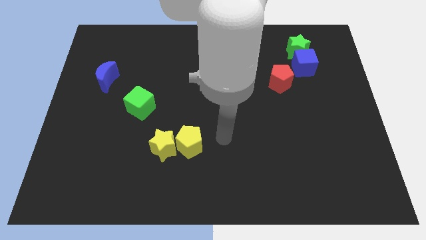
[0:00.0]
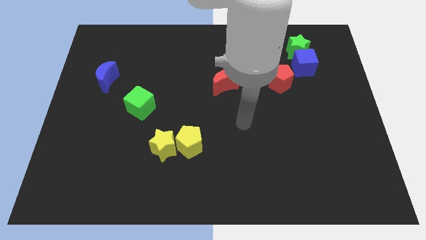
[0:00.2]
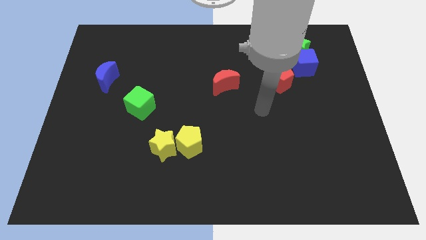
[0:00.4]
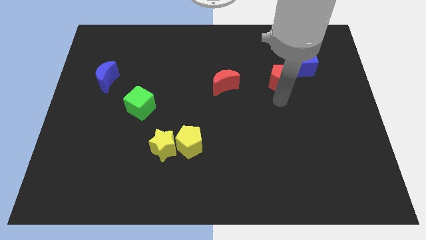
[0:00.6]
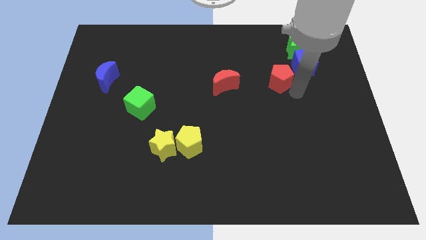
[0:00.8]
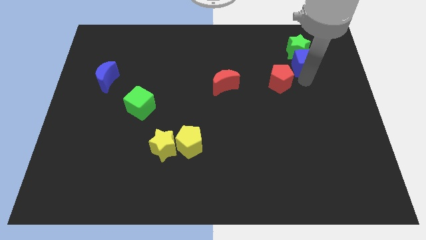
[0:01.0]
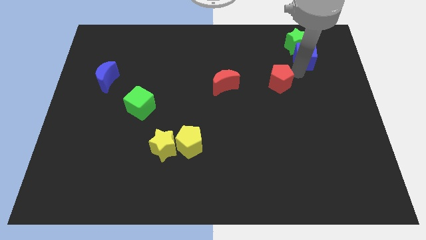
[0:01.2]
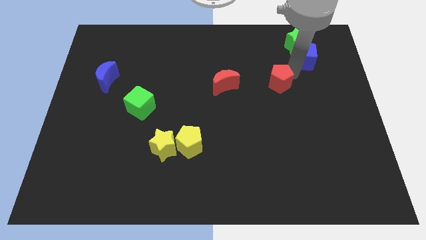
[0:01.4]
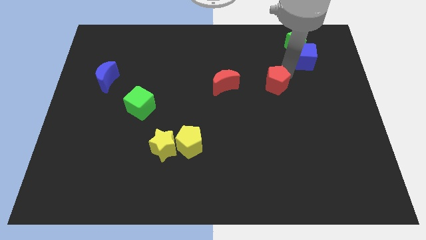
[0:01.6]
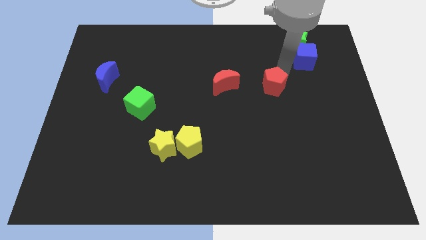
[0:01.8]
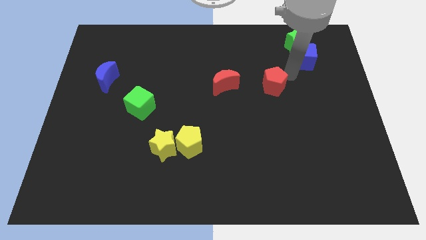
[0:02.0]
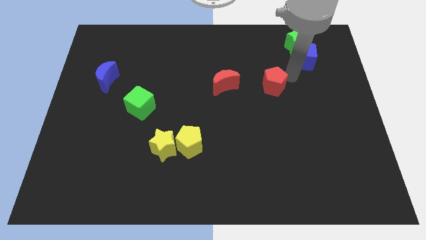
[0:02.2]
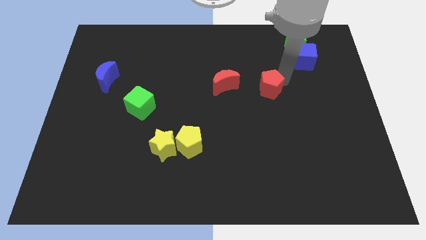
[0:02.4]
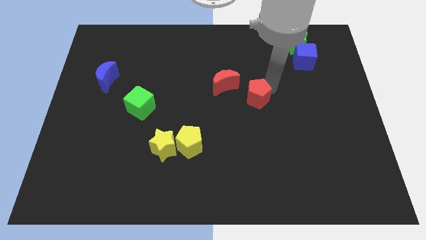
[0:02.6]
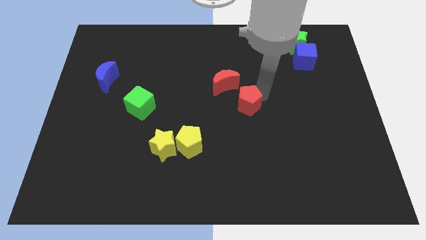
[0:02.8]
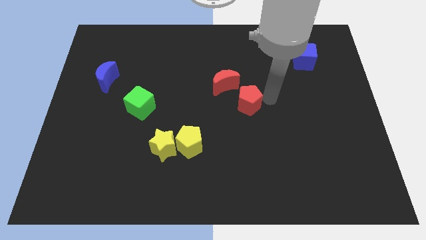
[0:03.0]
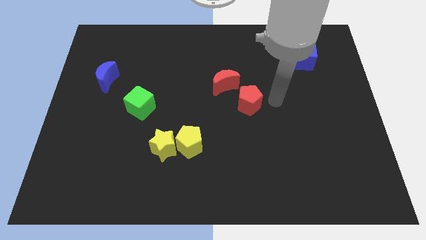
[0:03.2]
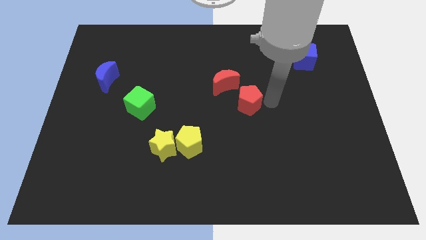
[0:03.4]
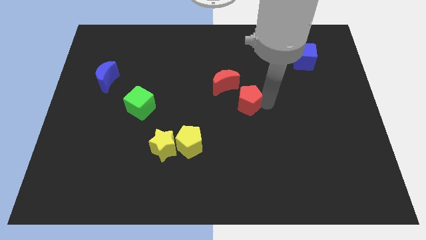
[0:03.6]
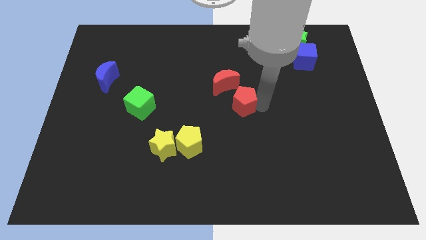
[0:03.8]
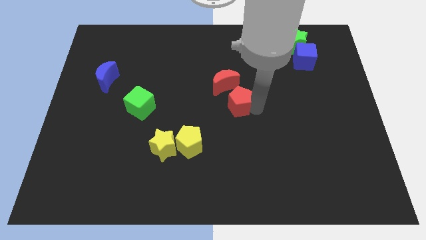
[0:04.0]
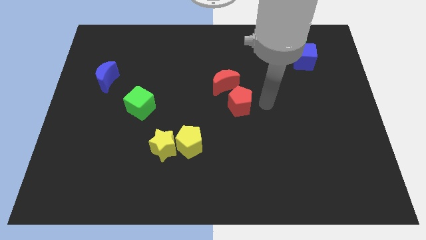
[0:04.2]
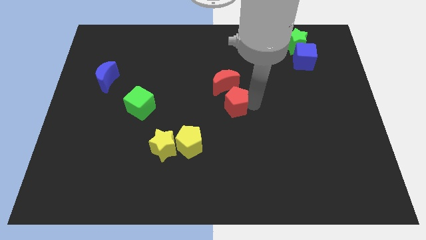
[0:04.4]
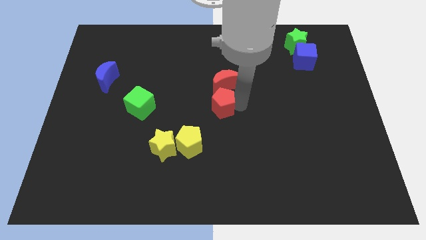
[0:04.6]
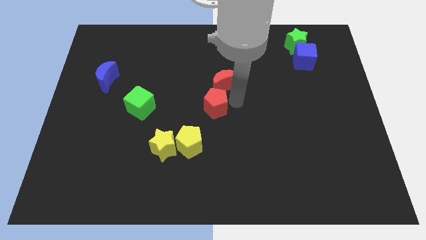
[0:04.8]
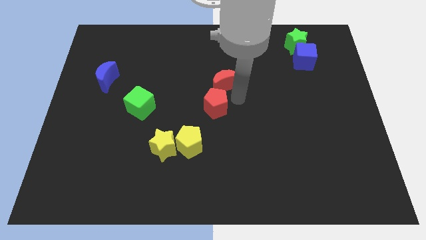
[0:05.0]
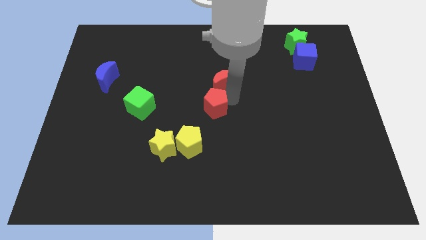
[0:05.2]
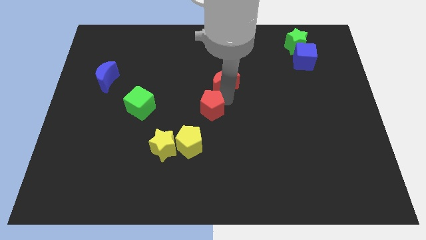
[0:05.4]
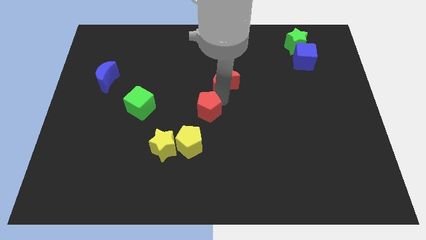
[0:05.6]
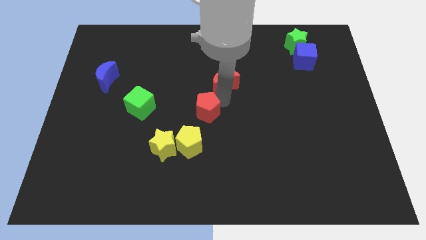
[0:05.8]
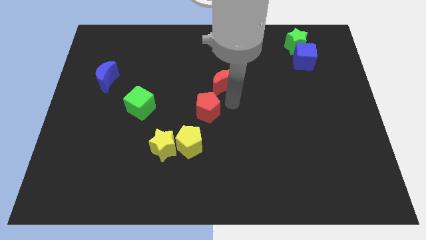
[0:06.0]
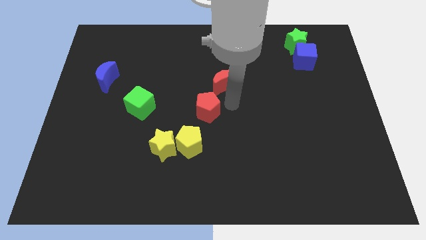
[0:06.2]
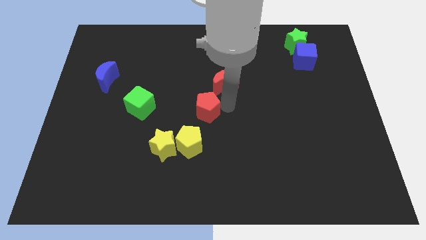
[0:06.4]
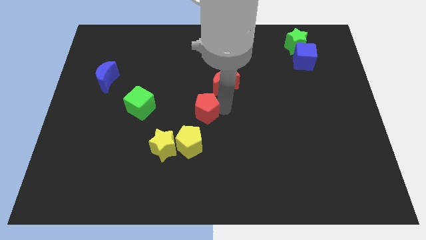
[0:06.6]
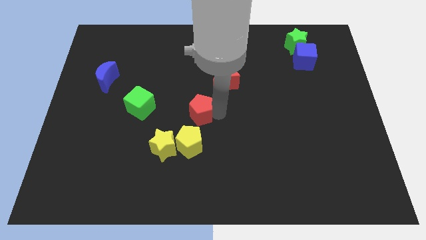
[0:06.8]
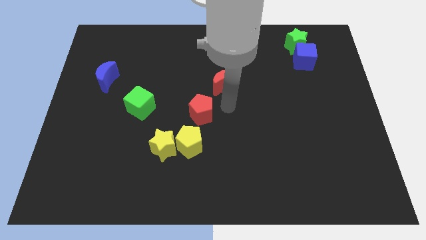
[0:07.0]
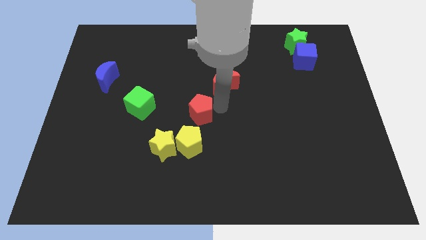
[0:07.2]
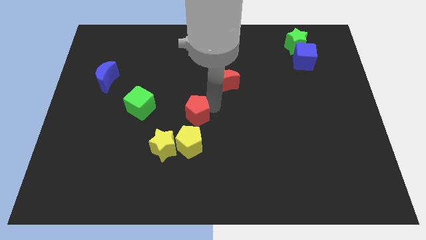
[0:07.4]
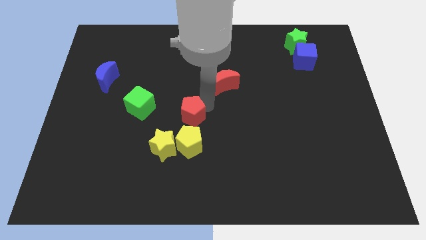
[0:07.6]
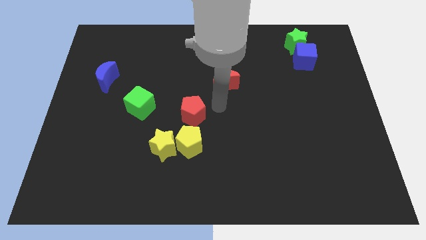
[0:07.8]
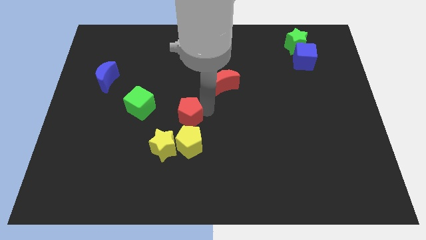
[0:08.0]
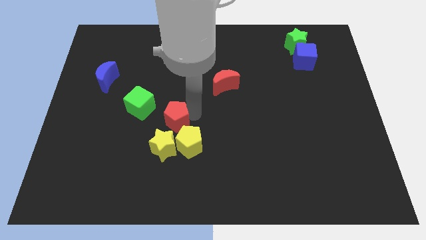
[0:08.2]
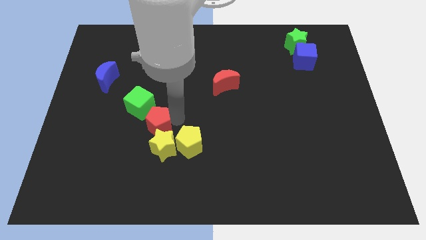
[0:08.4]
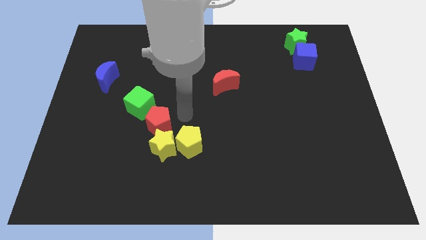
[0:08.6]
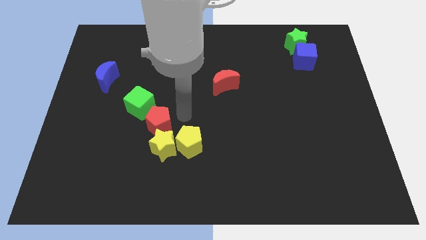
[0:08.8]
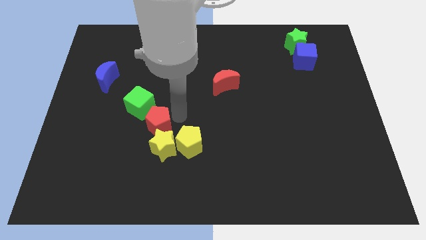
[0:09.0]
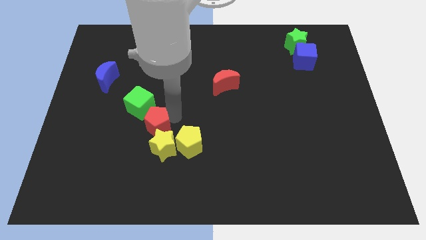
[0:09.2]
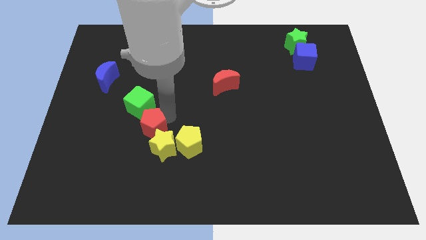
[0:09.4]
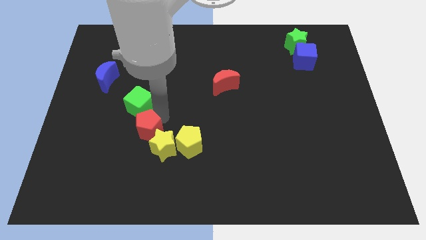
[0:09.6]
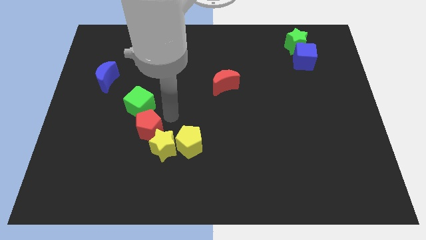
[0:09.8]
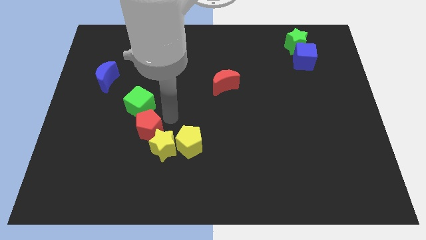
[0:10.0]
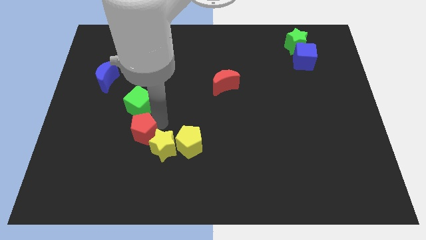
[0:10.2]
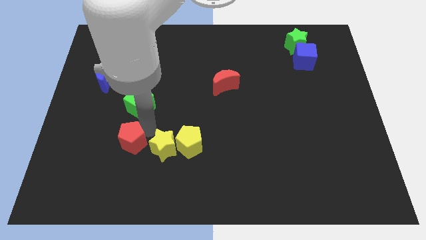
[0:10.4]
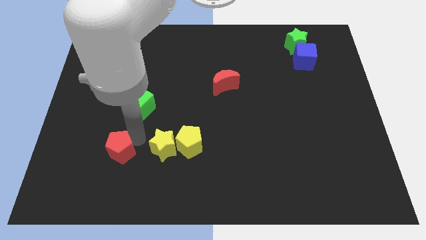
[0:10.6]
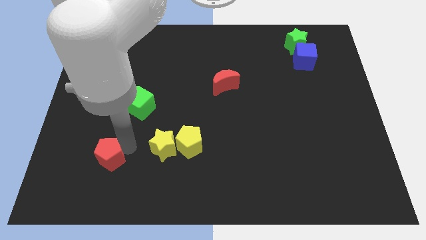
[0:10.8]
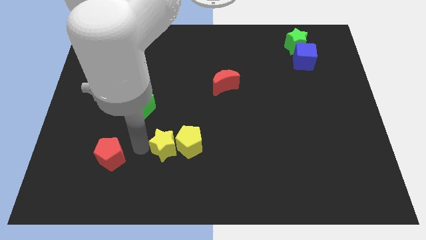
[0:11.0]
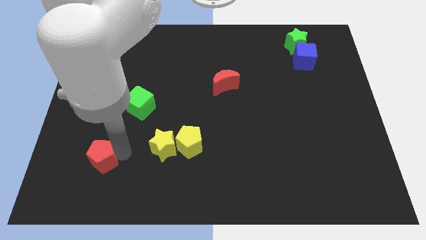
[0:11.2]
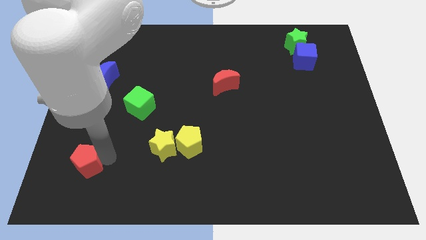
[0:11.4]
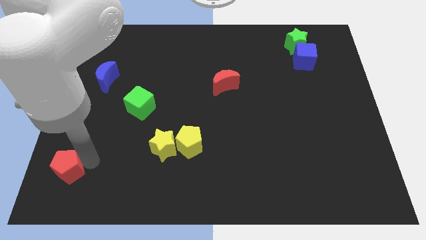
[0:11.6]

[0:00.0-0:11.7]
put the red pentagon to the bottom left corner
